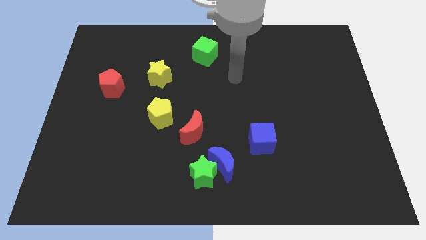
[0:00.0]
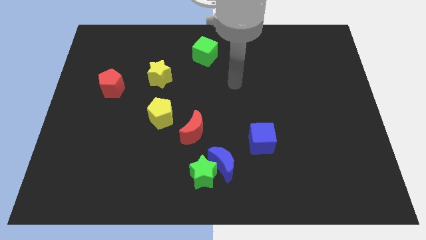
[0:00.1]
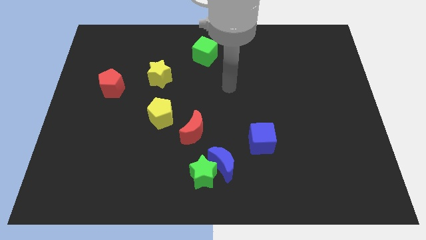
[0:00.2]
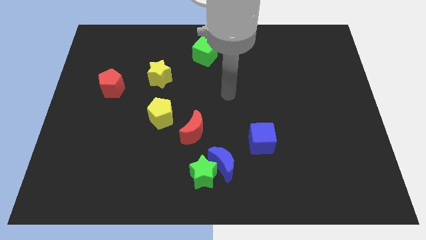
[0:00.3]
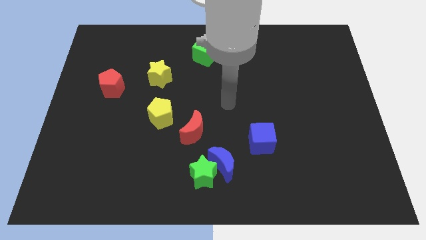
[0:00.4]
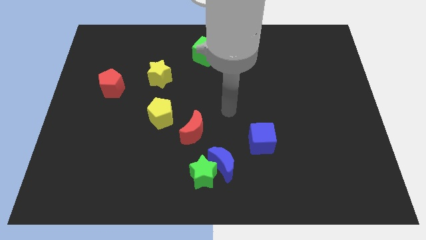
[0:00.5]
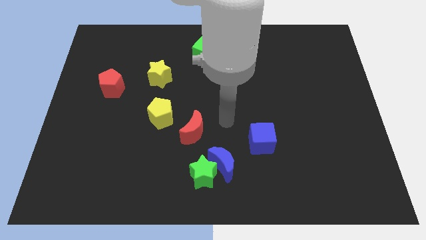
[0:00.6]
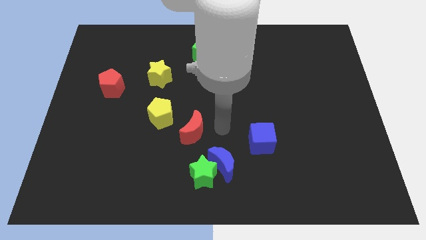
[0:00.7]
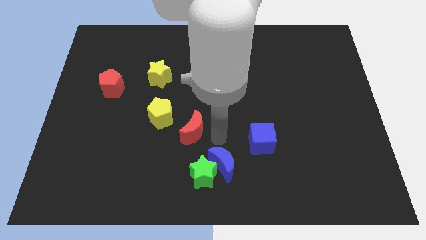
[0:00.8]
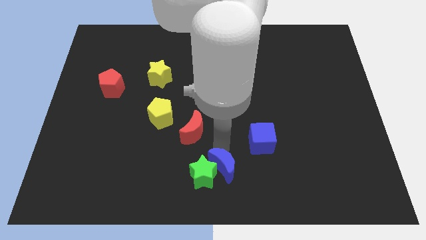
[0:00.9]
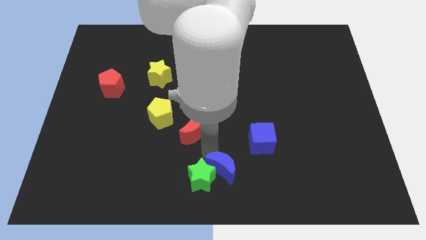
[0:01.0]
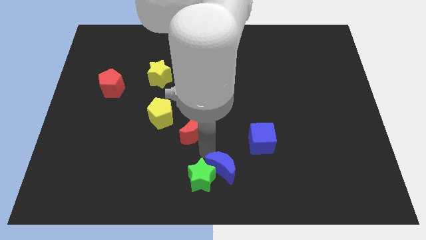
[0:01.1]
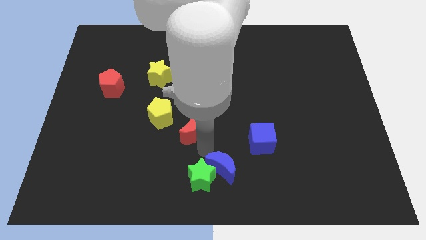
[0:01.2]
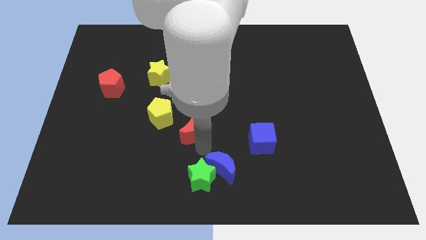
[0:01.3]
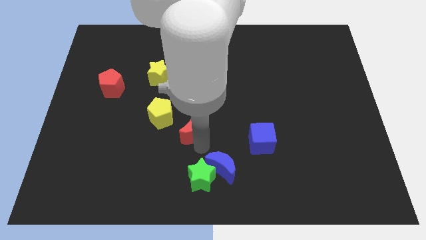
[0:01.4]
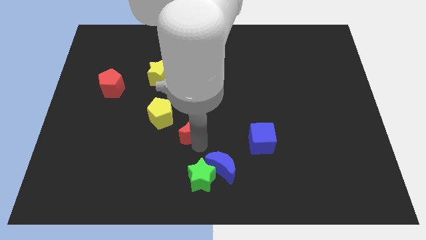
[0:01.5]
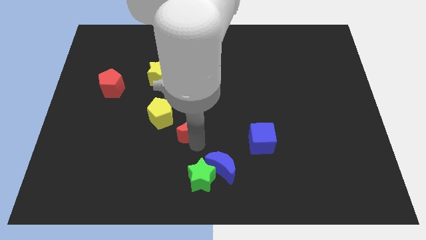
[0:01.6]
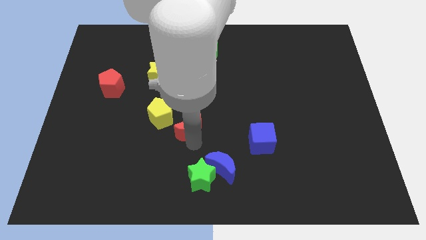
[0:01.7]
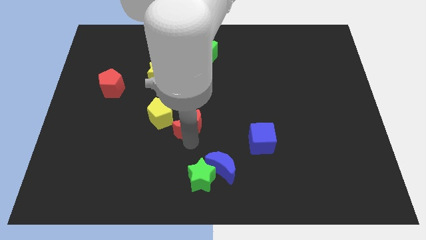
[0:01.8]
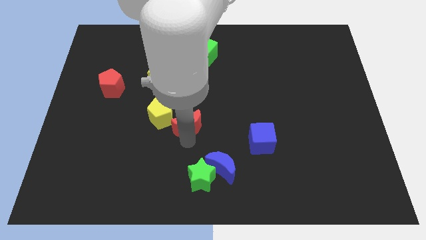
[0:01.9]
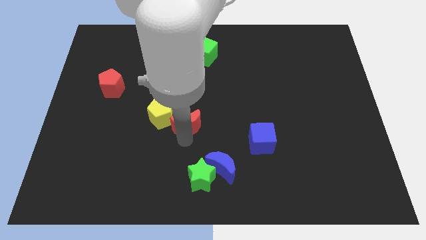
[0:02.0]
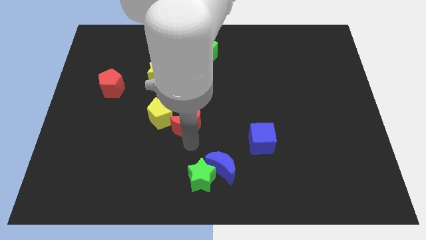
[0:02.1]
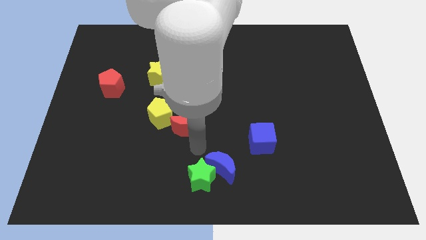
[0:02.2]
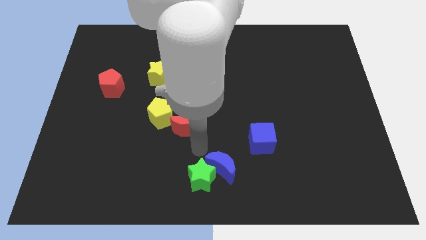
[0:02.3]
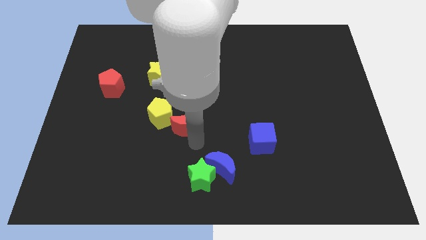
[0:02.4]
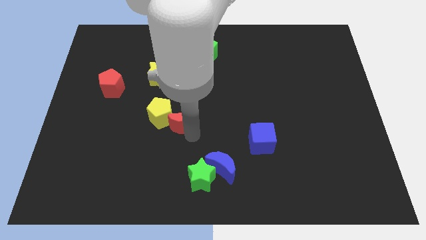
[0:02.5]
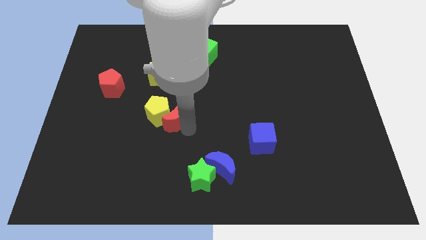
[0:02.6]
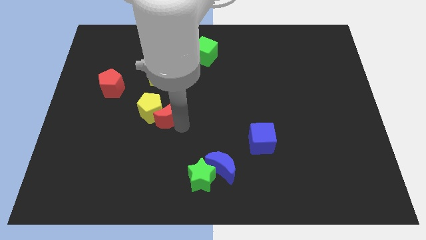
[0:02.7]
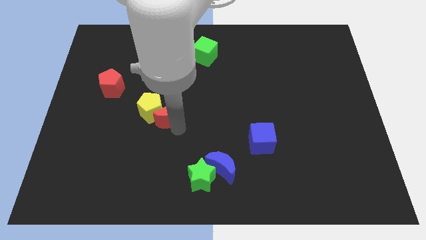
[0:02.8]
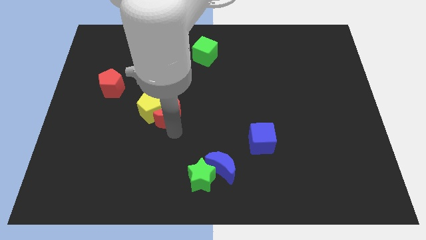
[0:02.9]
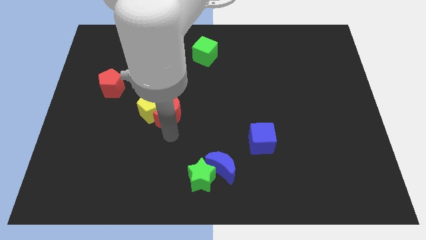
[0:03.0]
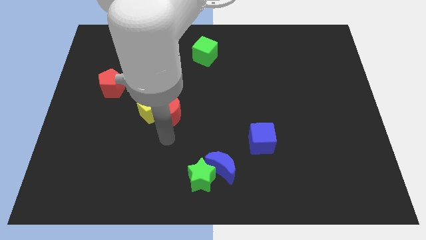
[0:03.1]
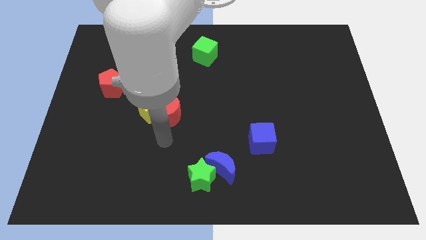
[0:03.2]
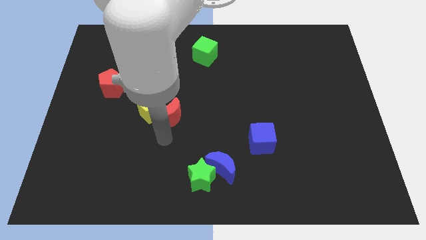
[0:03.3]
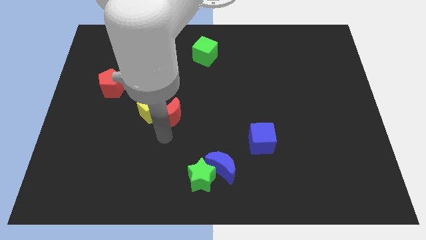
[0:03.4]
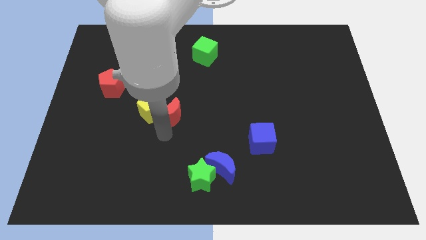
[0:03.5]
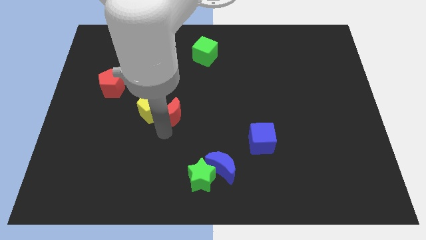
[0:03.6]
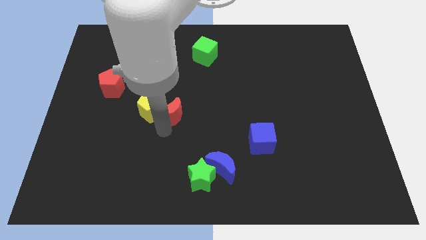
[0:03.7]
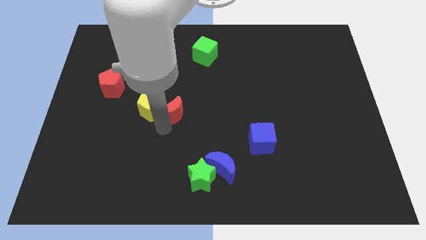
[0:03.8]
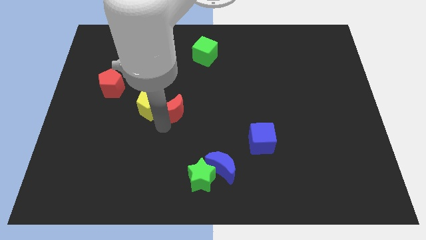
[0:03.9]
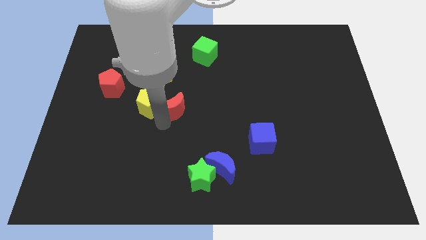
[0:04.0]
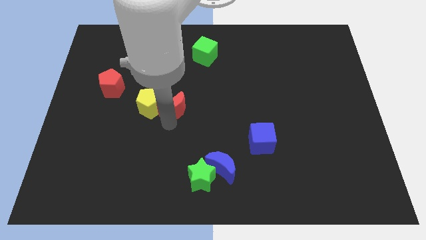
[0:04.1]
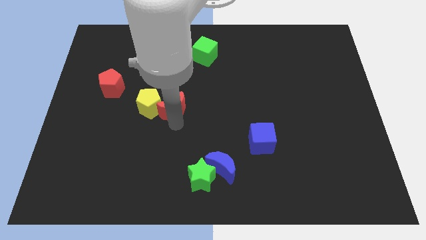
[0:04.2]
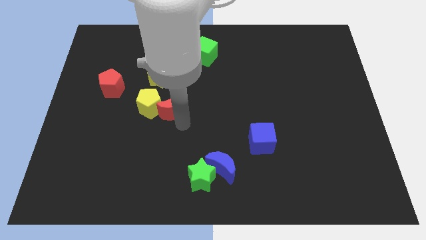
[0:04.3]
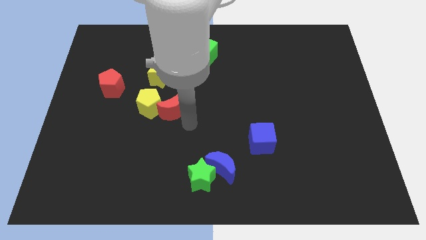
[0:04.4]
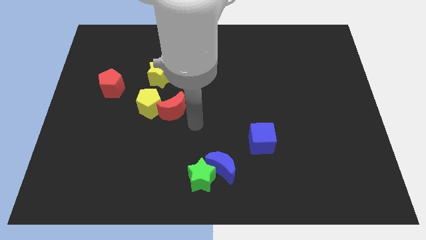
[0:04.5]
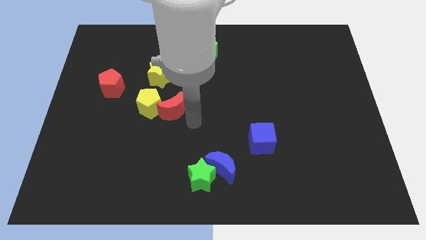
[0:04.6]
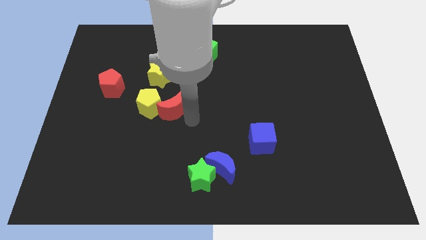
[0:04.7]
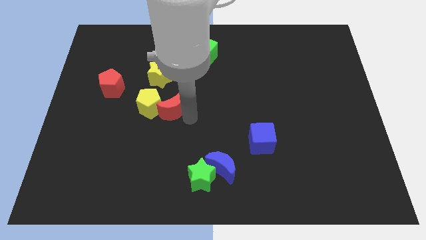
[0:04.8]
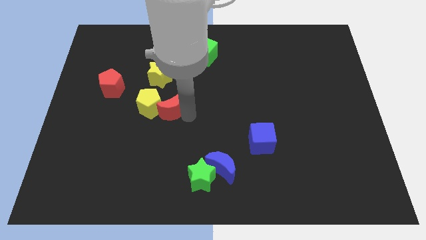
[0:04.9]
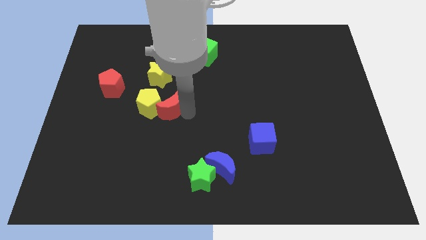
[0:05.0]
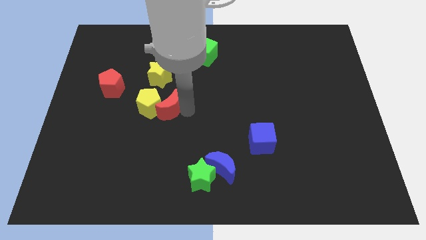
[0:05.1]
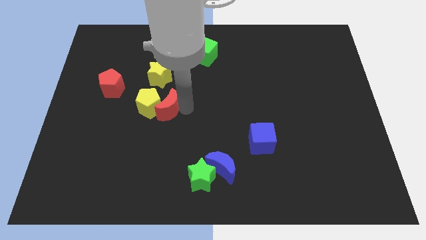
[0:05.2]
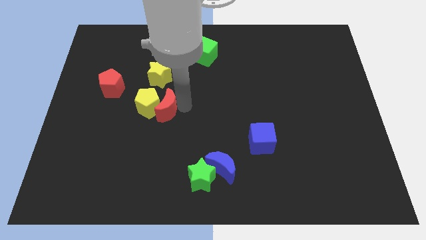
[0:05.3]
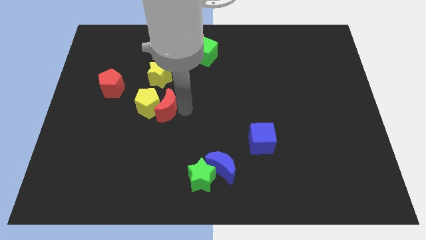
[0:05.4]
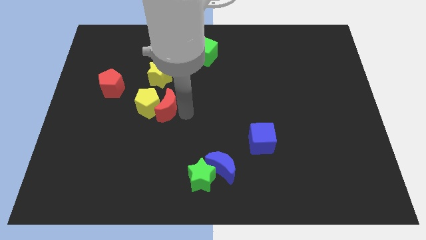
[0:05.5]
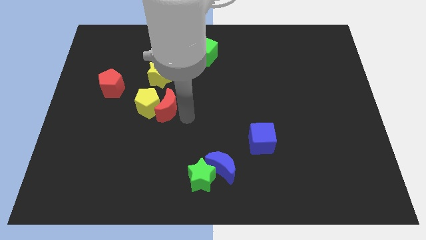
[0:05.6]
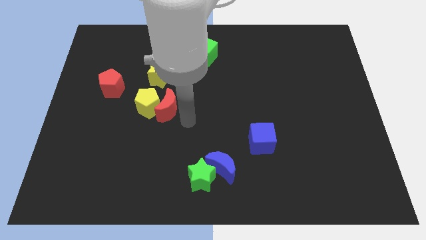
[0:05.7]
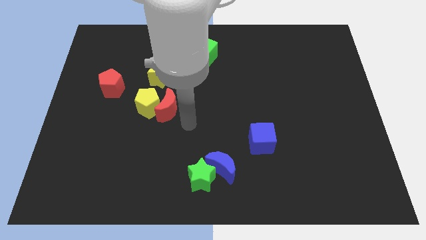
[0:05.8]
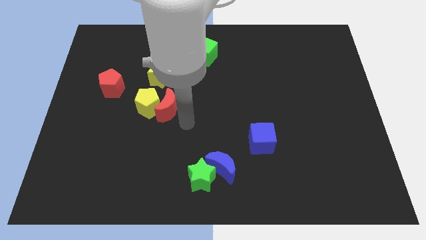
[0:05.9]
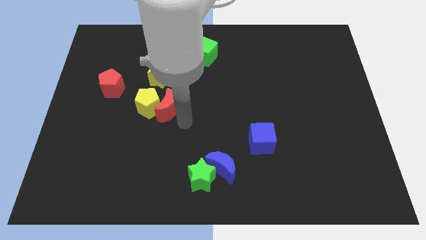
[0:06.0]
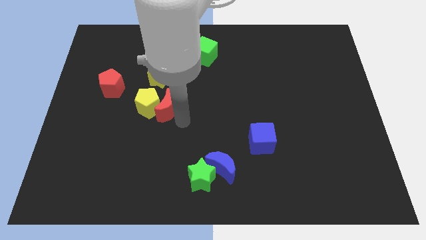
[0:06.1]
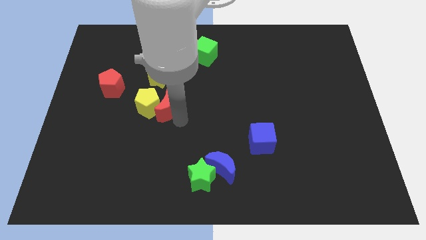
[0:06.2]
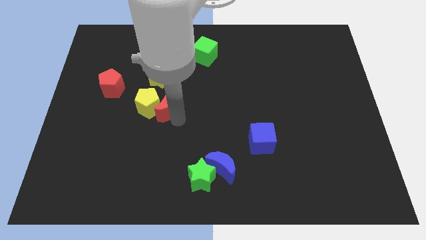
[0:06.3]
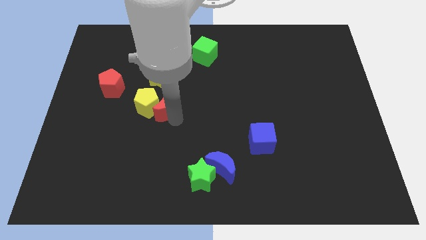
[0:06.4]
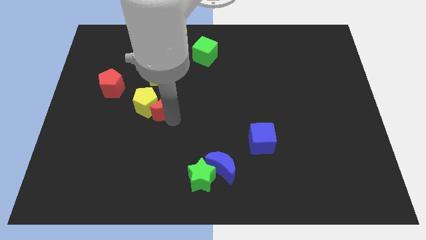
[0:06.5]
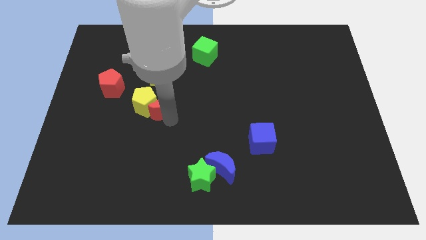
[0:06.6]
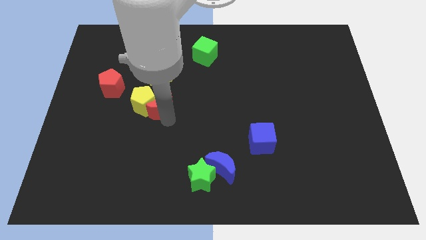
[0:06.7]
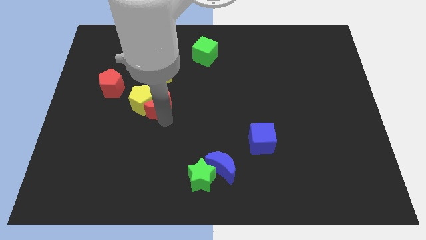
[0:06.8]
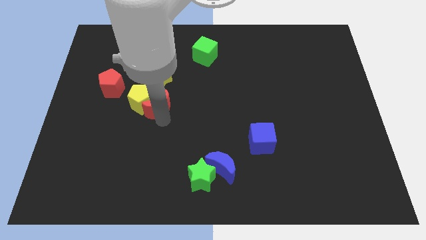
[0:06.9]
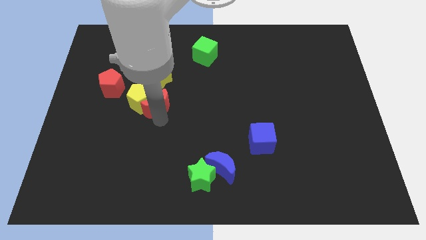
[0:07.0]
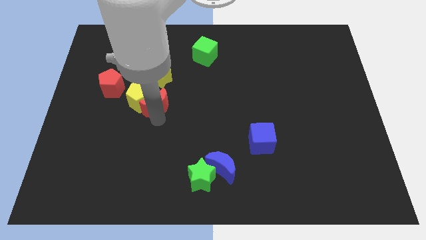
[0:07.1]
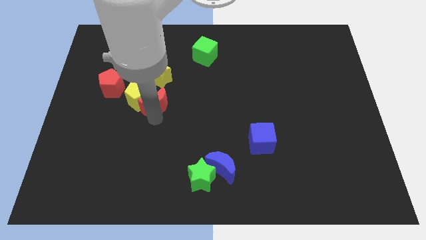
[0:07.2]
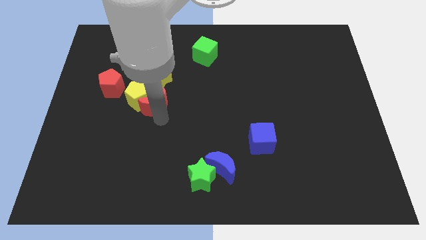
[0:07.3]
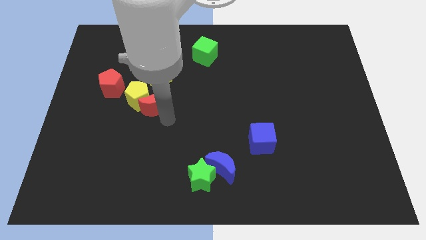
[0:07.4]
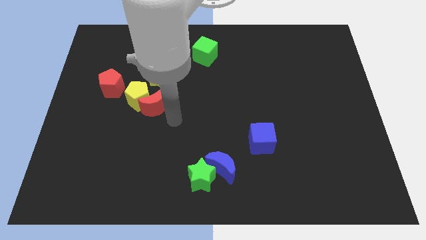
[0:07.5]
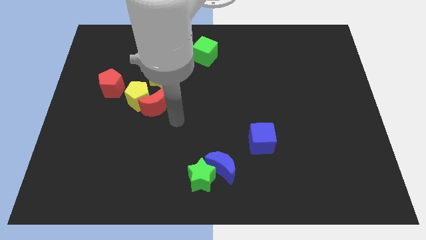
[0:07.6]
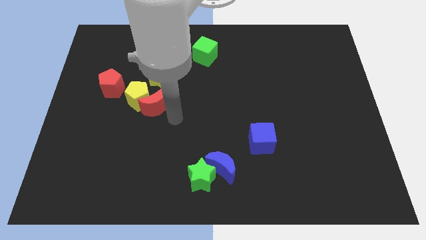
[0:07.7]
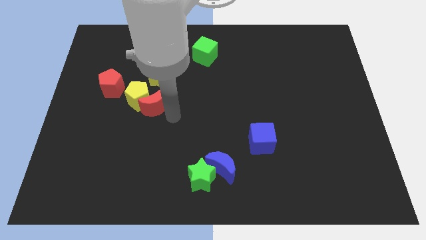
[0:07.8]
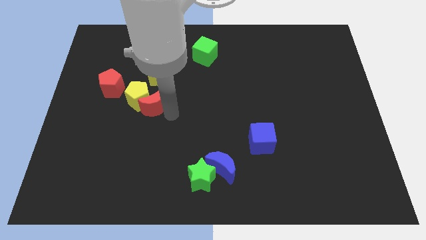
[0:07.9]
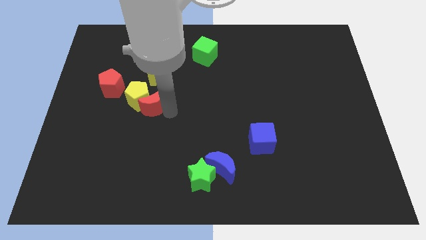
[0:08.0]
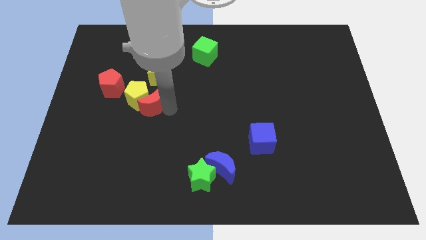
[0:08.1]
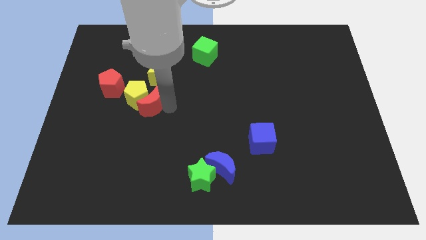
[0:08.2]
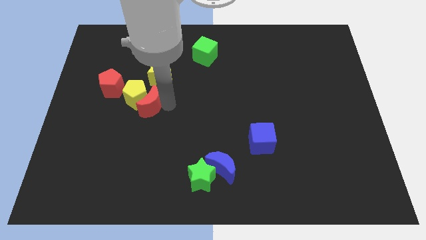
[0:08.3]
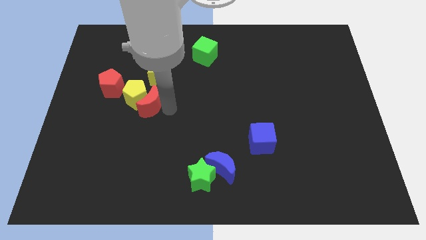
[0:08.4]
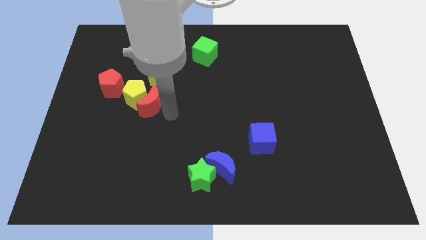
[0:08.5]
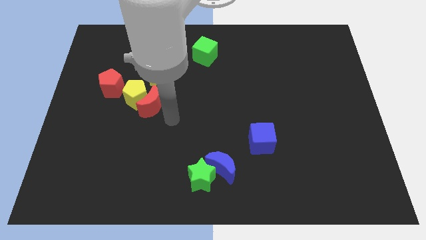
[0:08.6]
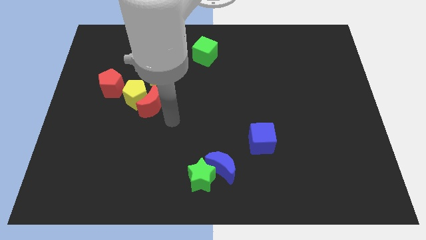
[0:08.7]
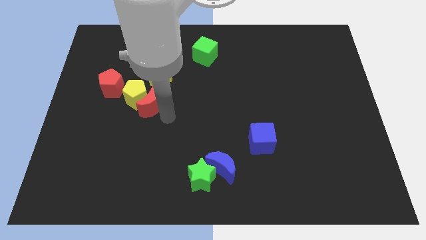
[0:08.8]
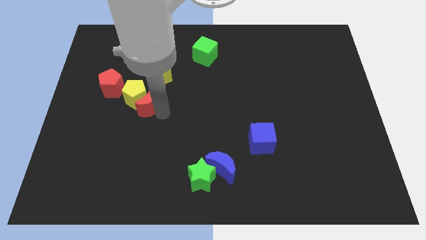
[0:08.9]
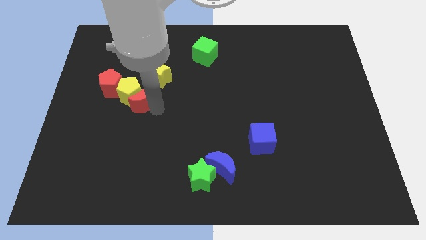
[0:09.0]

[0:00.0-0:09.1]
put the red moon to the bottom left side of the yellow star
